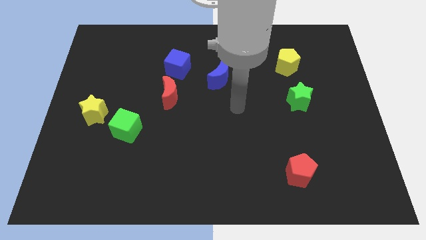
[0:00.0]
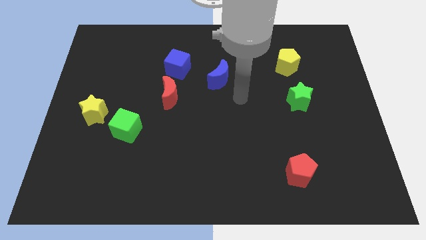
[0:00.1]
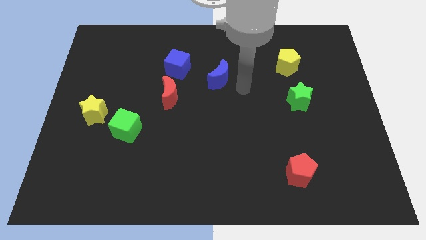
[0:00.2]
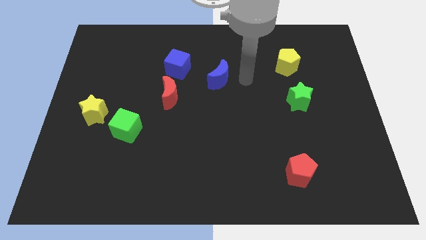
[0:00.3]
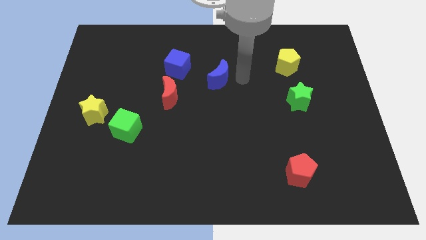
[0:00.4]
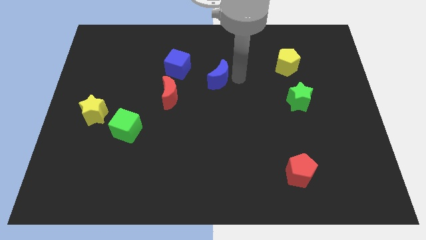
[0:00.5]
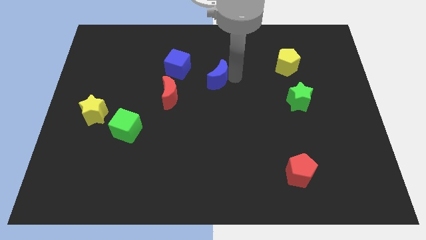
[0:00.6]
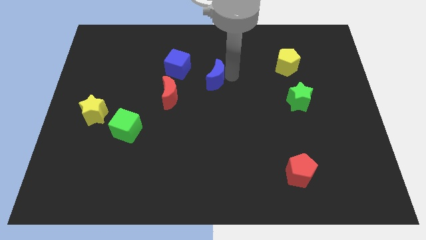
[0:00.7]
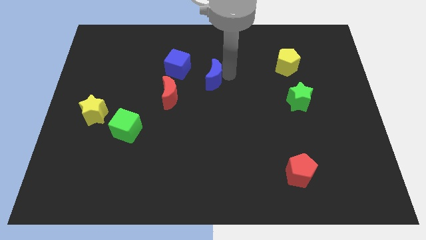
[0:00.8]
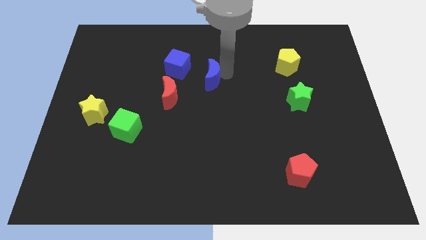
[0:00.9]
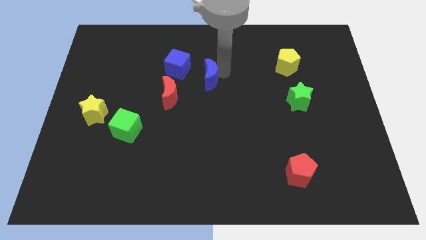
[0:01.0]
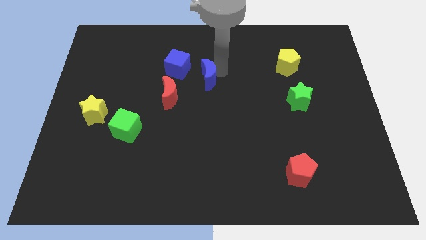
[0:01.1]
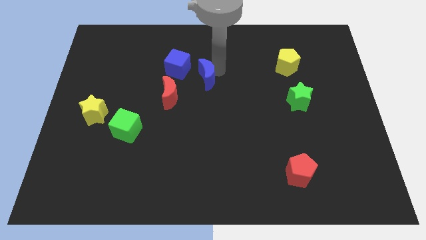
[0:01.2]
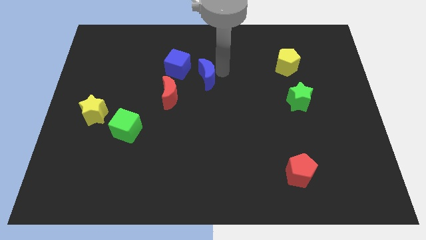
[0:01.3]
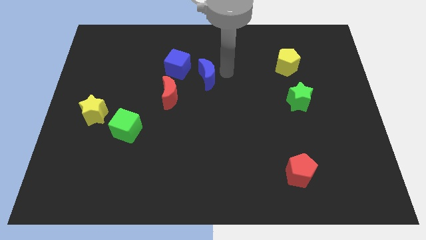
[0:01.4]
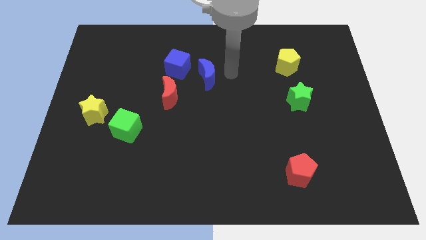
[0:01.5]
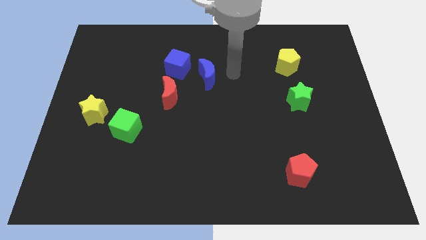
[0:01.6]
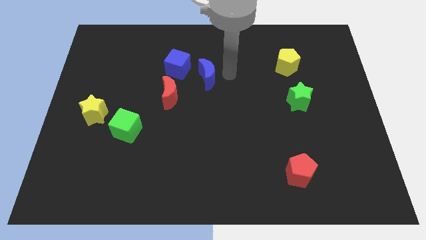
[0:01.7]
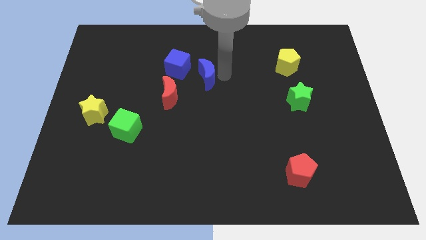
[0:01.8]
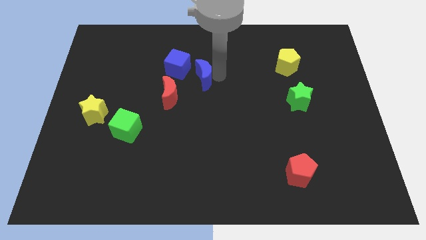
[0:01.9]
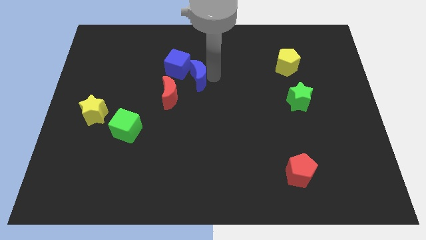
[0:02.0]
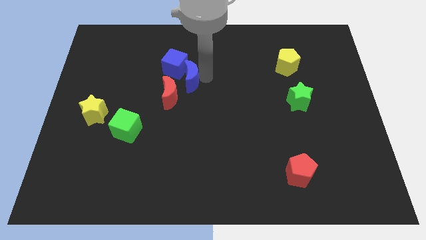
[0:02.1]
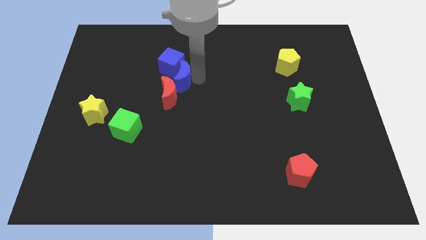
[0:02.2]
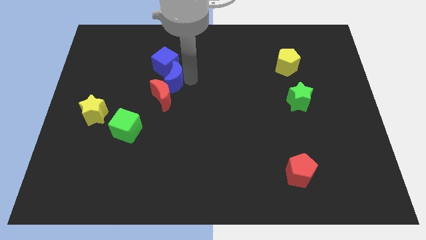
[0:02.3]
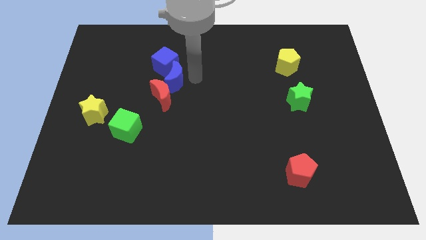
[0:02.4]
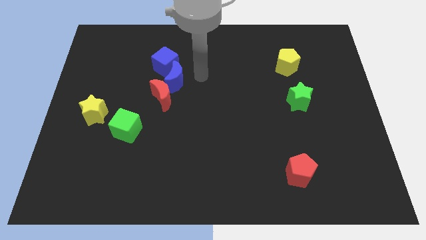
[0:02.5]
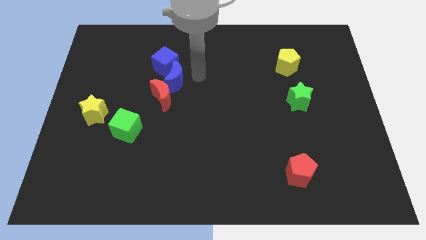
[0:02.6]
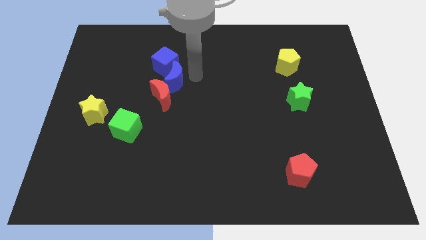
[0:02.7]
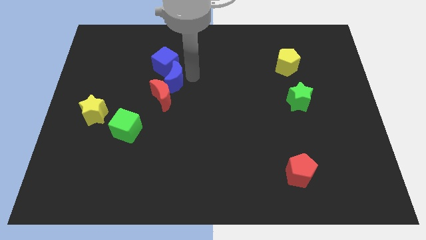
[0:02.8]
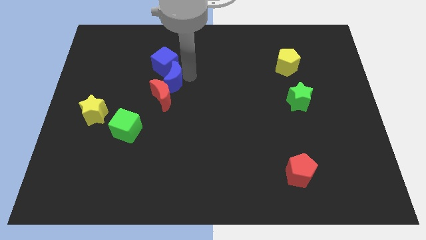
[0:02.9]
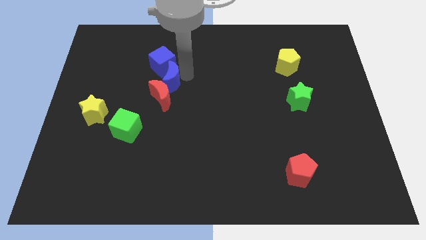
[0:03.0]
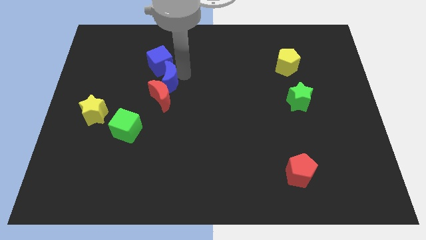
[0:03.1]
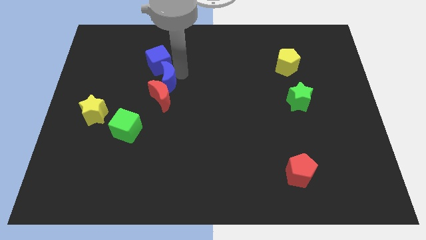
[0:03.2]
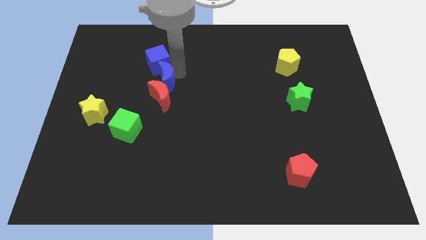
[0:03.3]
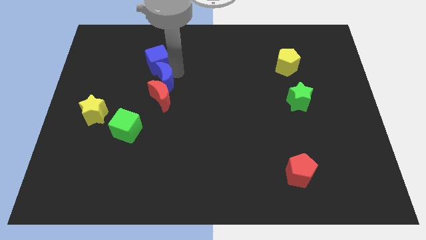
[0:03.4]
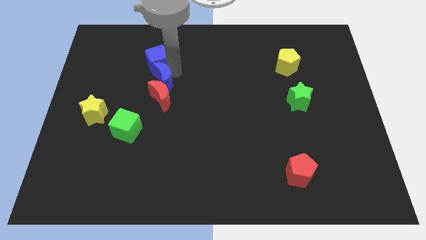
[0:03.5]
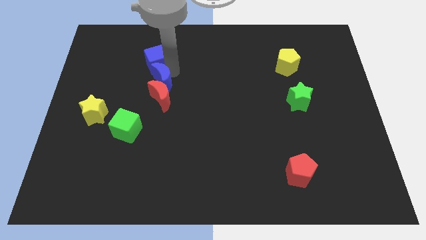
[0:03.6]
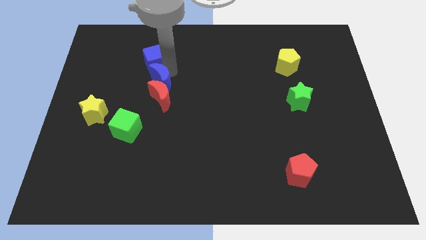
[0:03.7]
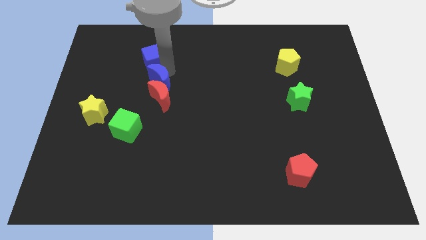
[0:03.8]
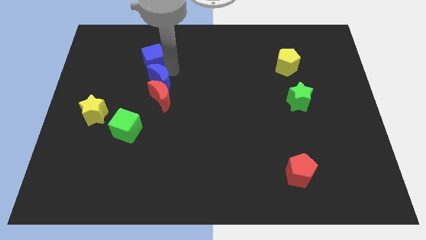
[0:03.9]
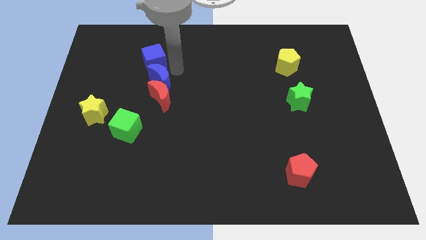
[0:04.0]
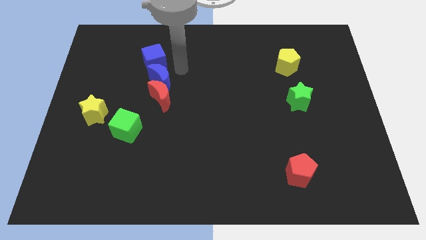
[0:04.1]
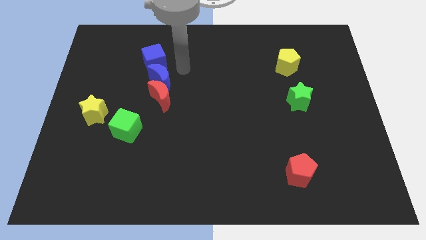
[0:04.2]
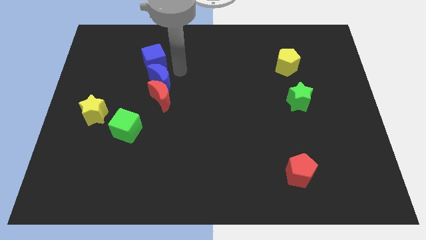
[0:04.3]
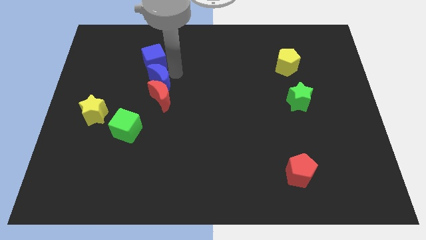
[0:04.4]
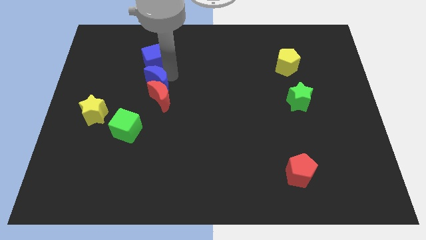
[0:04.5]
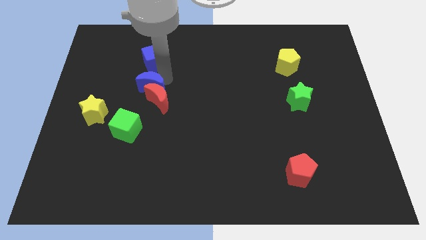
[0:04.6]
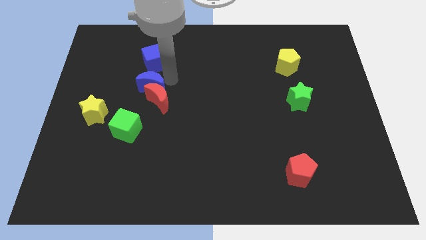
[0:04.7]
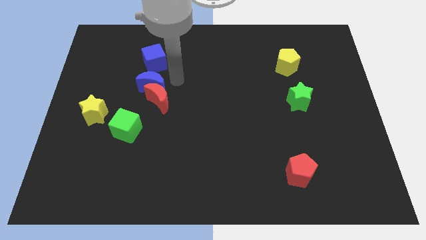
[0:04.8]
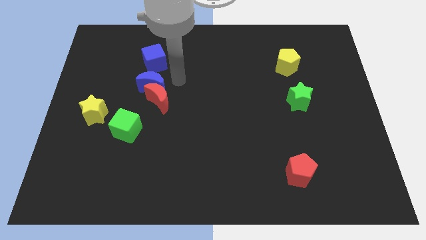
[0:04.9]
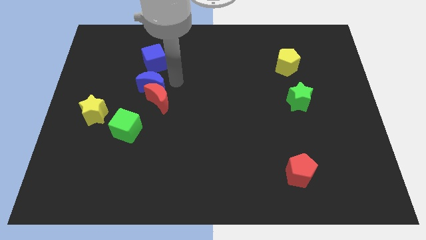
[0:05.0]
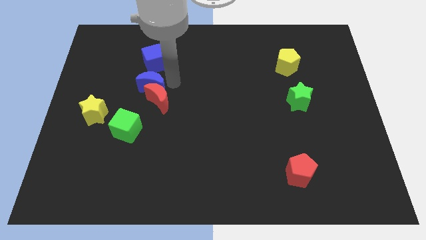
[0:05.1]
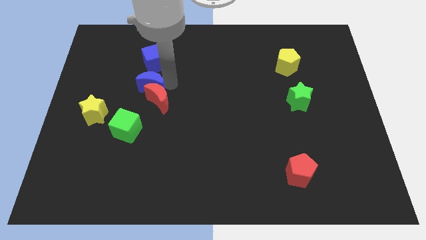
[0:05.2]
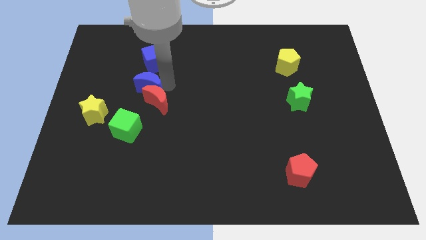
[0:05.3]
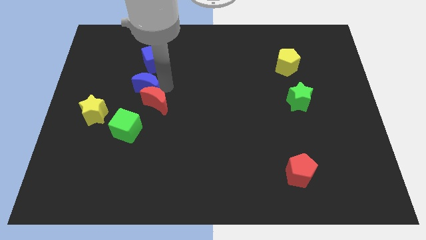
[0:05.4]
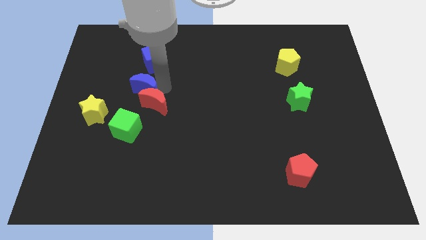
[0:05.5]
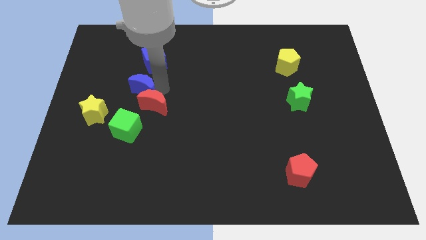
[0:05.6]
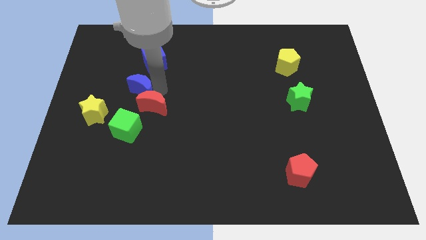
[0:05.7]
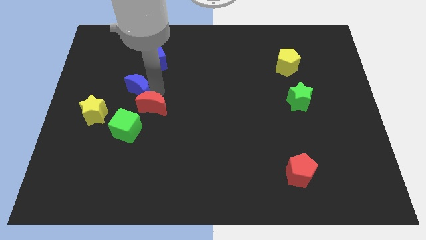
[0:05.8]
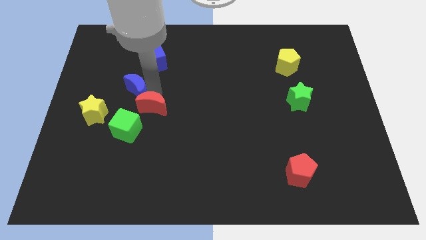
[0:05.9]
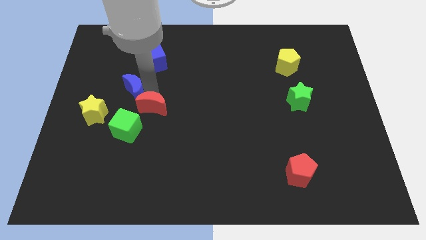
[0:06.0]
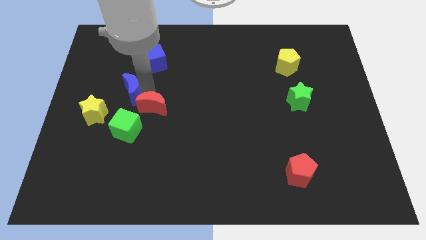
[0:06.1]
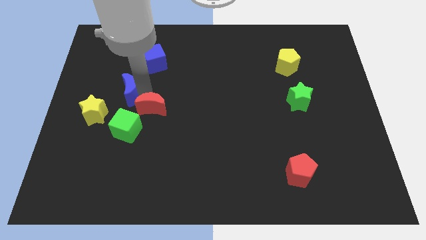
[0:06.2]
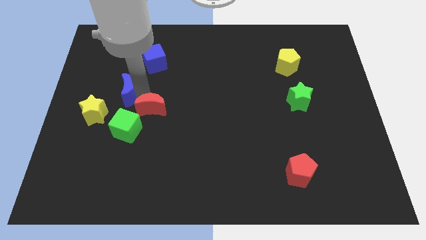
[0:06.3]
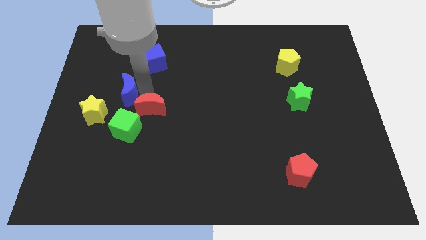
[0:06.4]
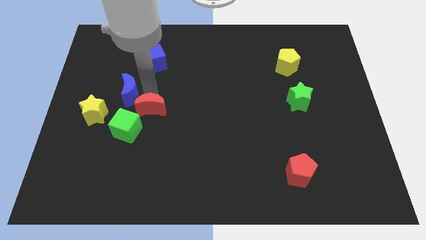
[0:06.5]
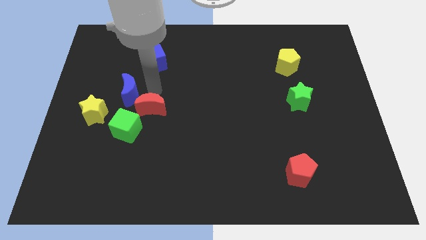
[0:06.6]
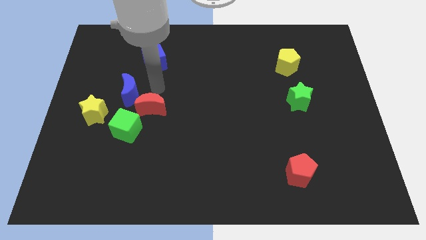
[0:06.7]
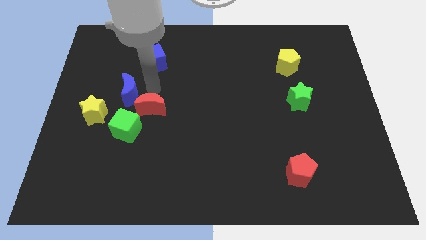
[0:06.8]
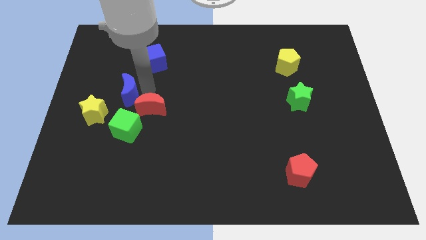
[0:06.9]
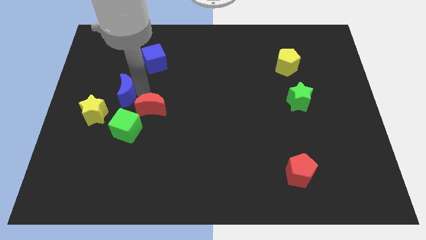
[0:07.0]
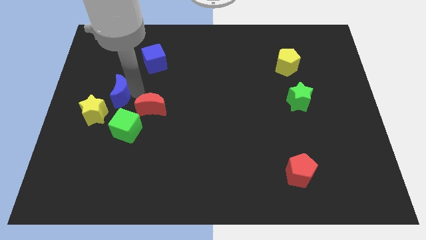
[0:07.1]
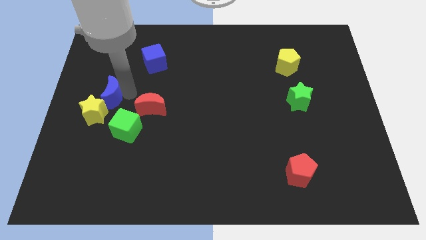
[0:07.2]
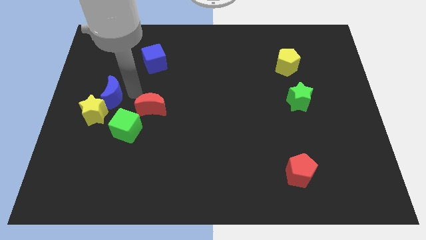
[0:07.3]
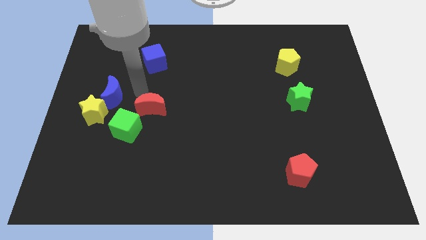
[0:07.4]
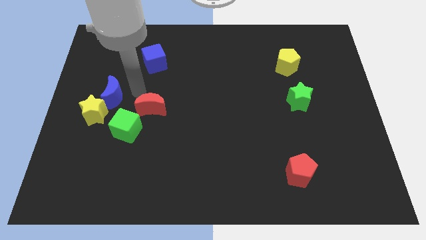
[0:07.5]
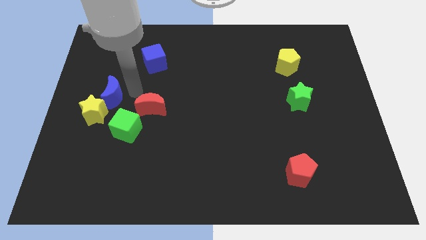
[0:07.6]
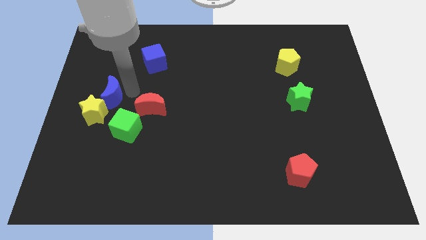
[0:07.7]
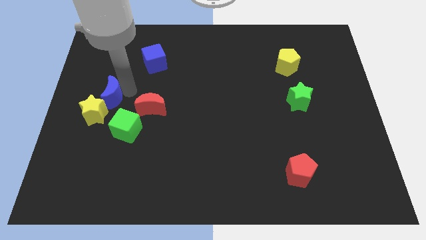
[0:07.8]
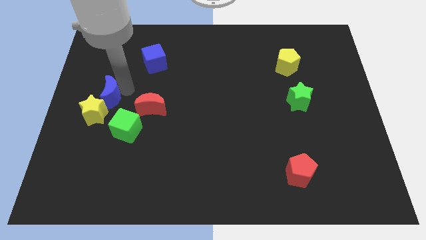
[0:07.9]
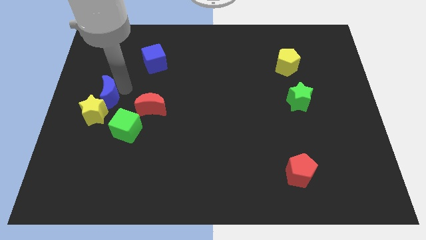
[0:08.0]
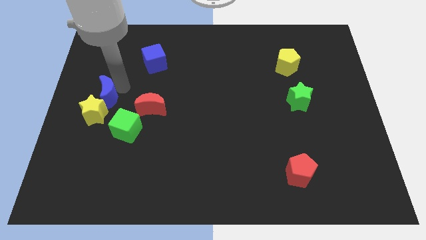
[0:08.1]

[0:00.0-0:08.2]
move the blue moon to the center left
